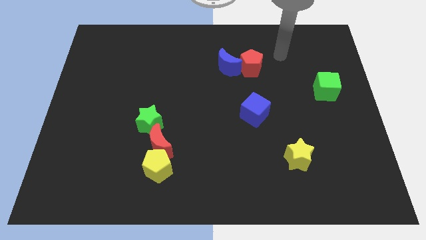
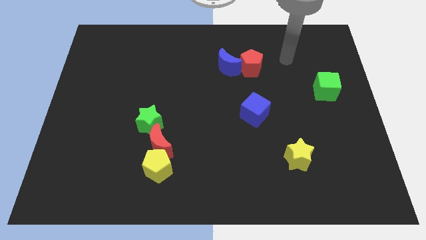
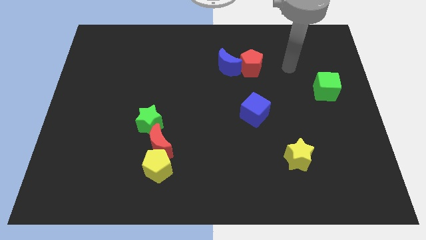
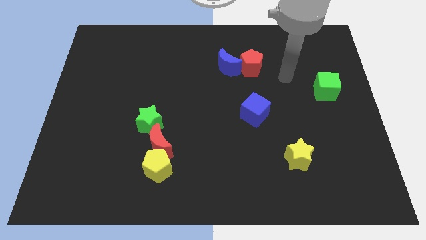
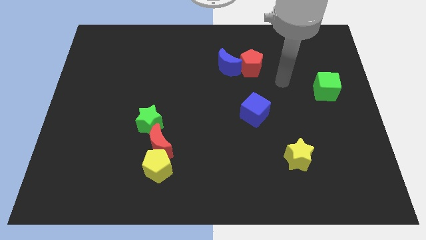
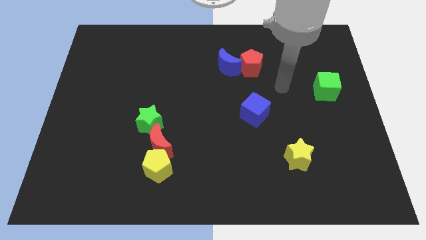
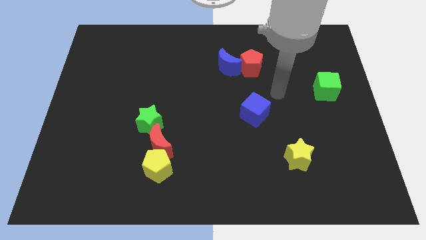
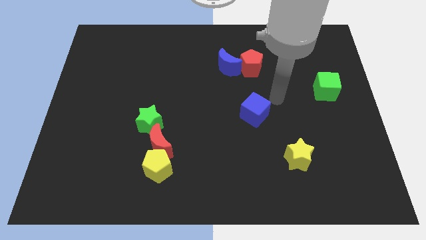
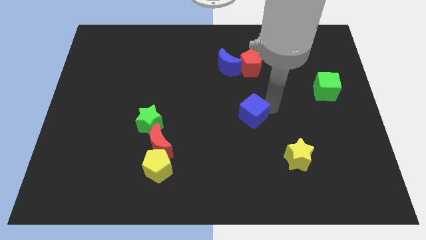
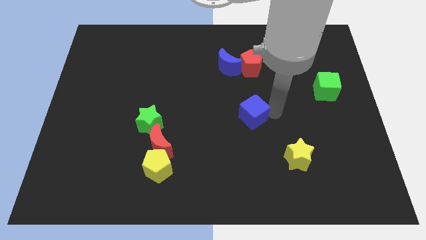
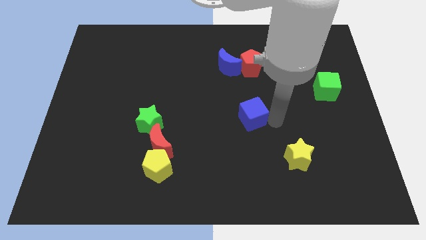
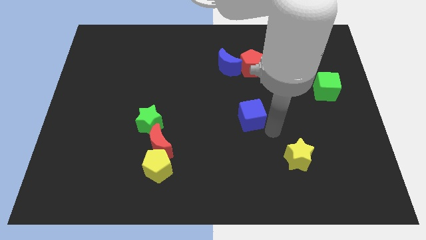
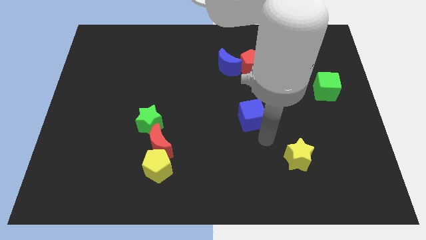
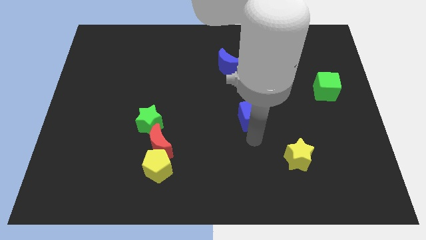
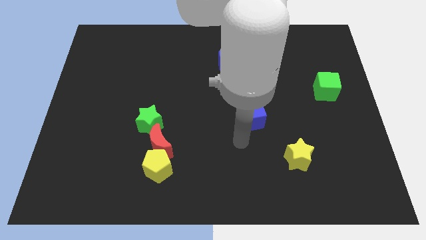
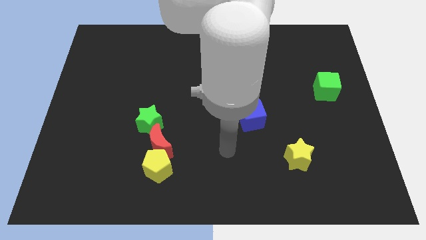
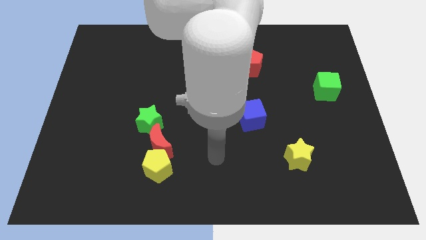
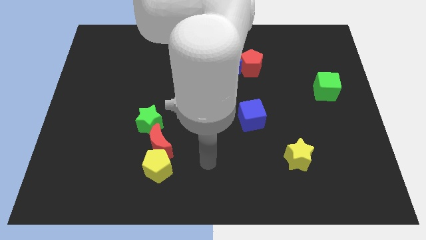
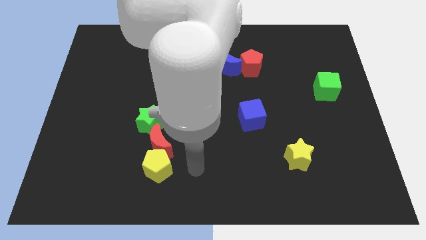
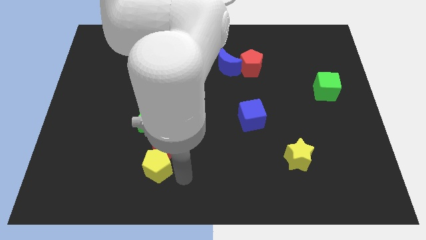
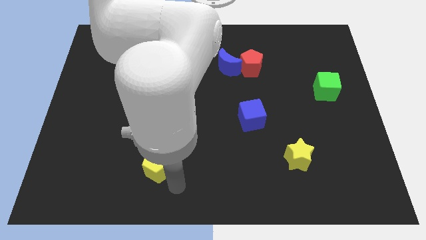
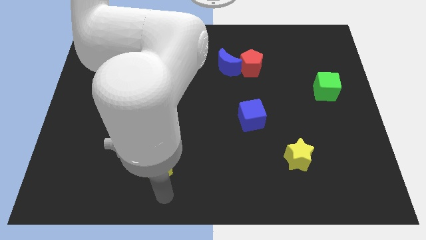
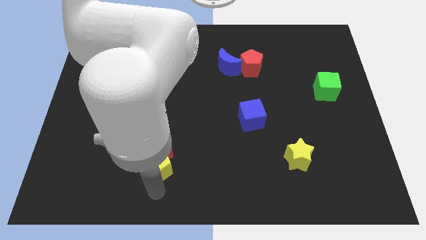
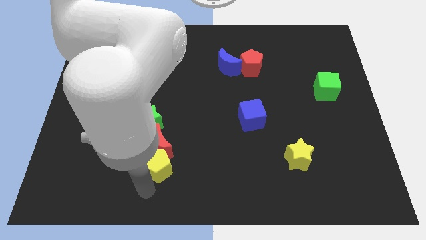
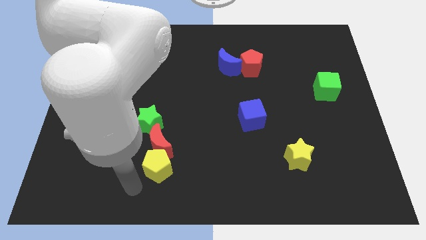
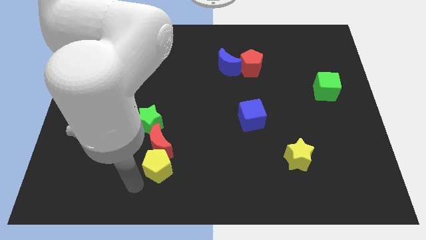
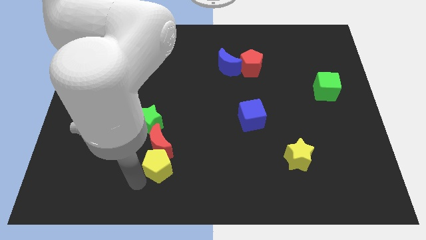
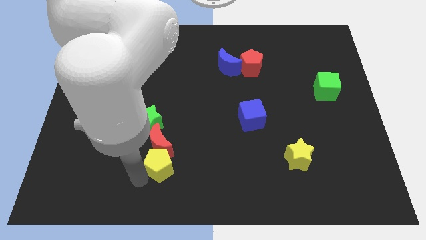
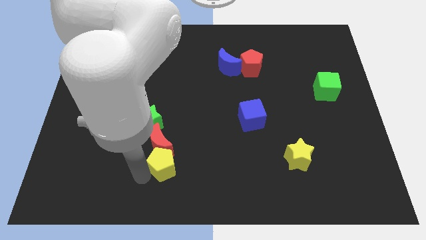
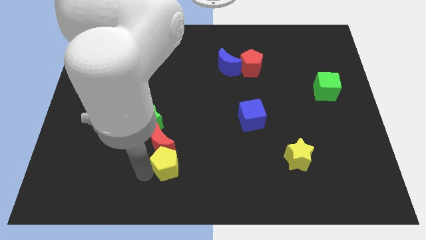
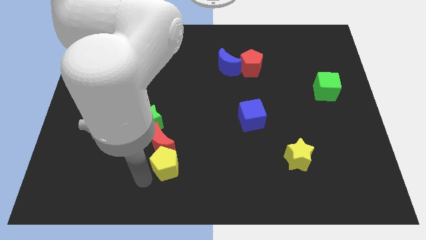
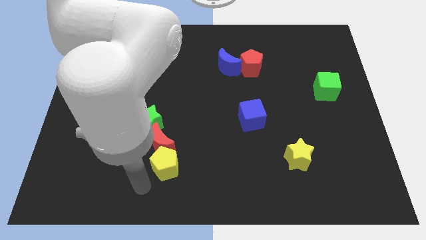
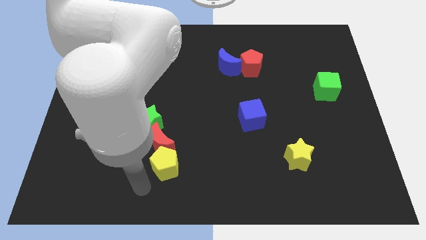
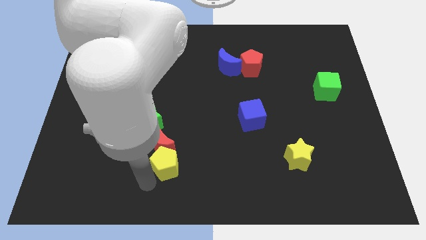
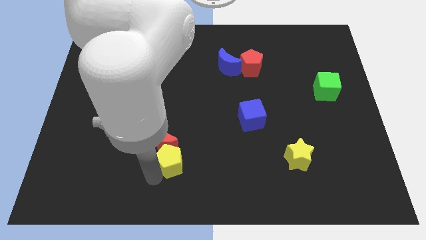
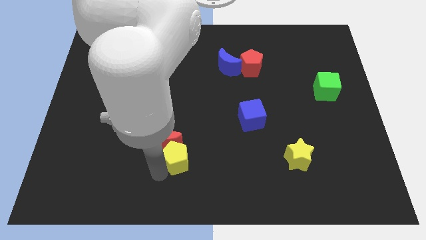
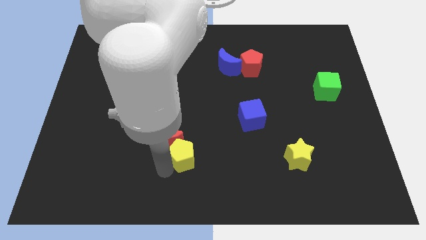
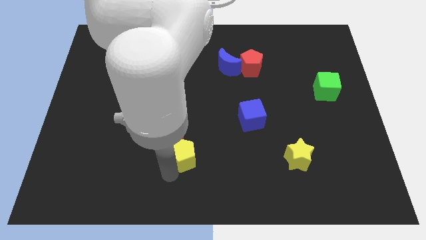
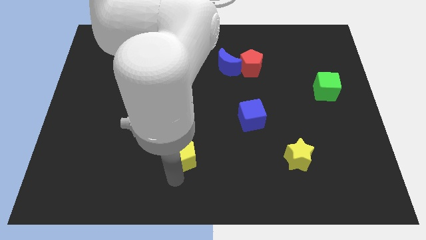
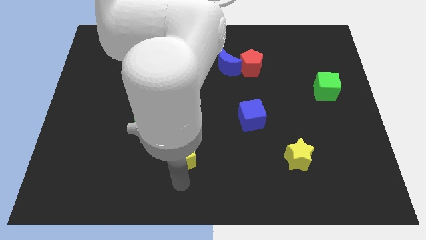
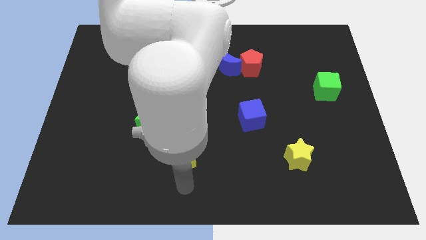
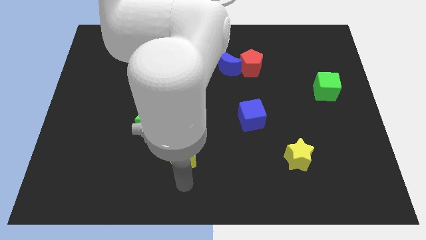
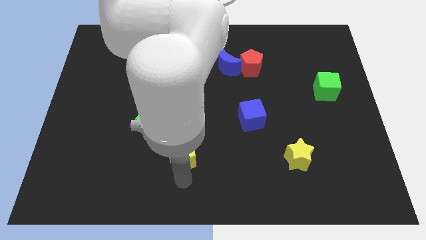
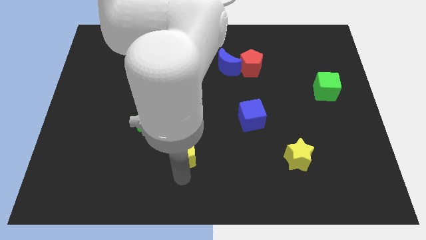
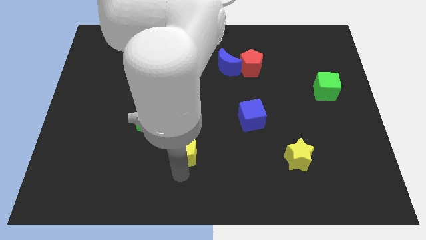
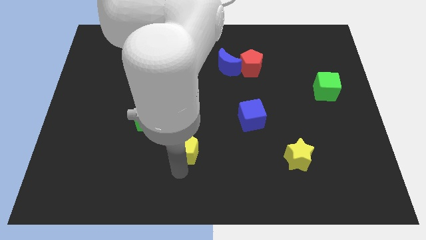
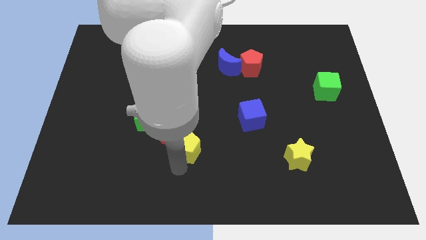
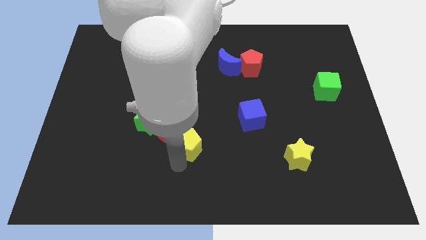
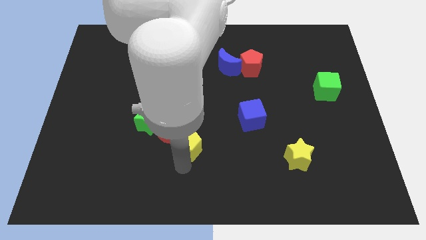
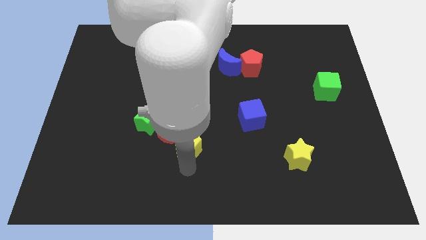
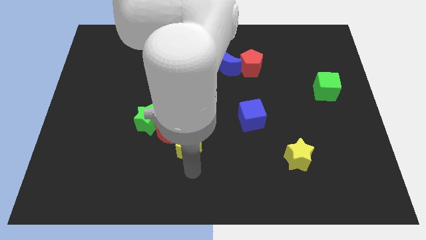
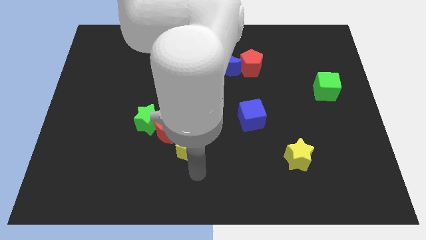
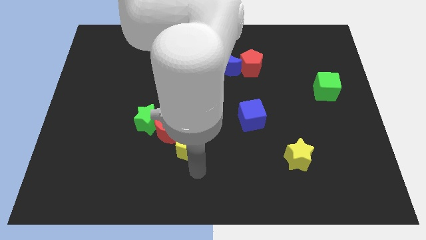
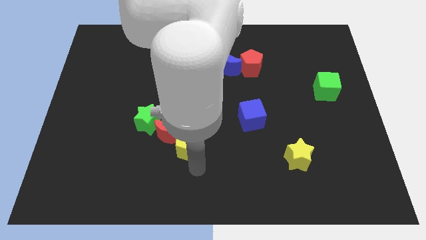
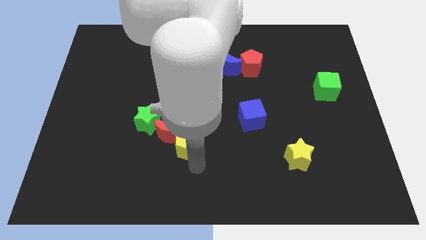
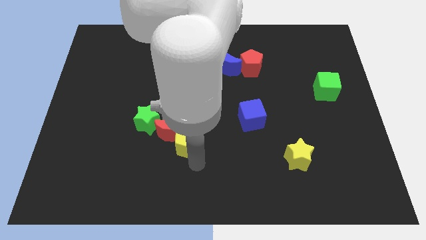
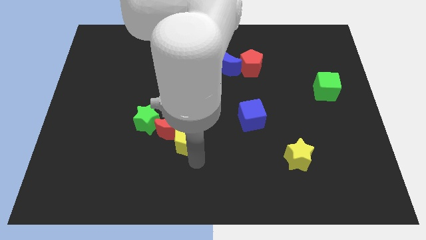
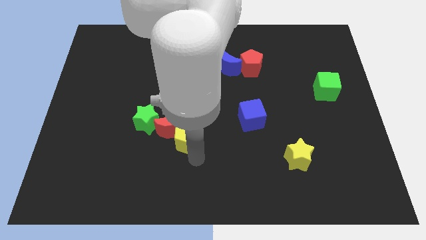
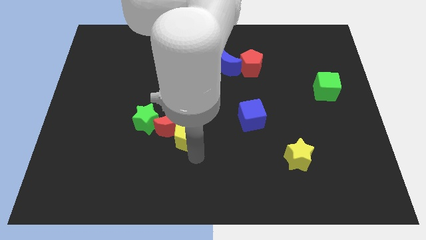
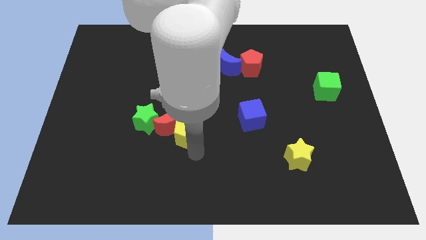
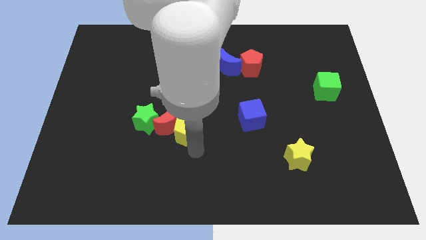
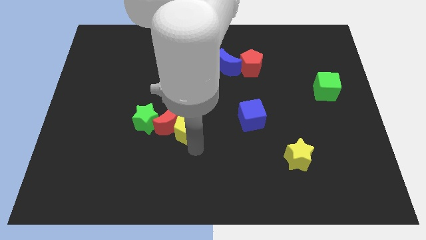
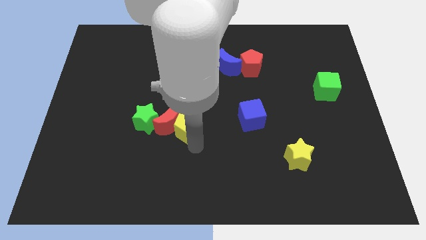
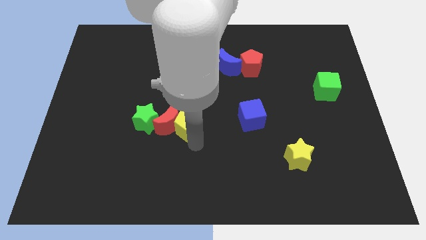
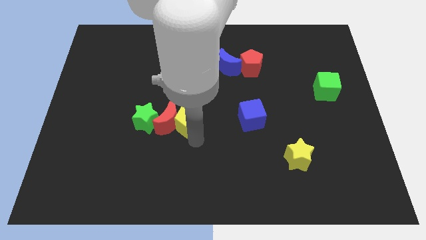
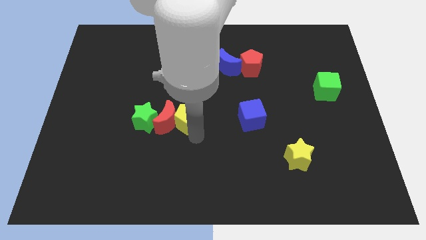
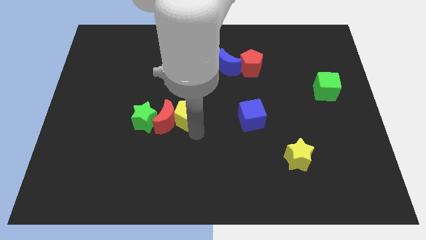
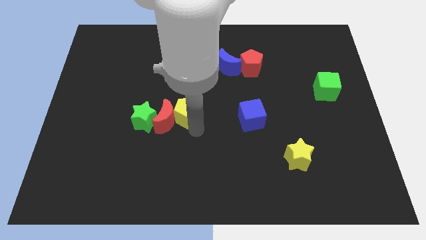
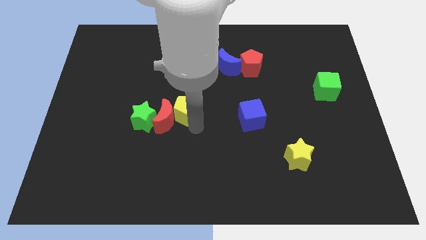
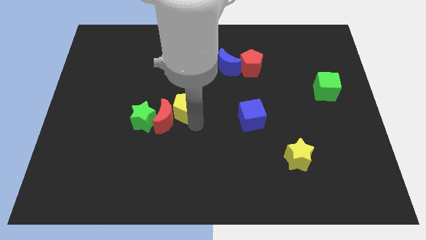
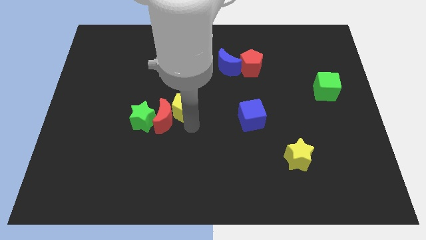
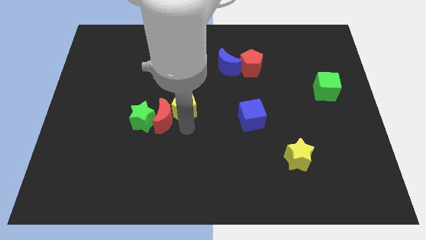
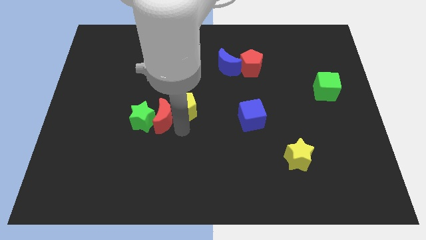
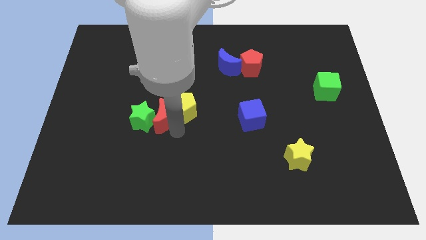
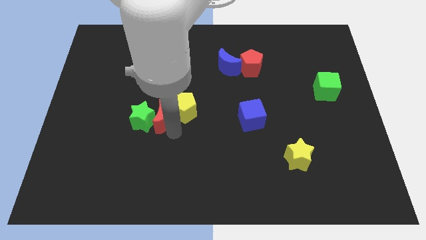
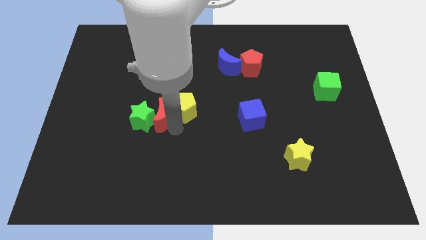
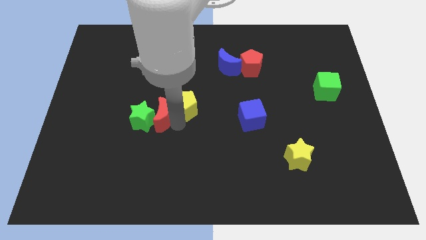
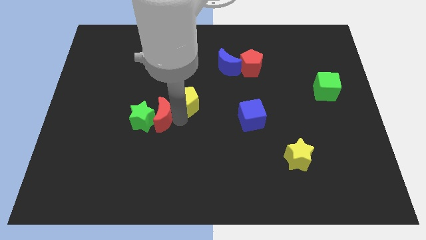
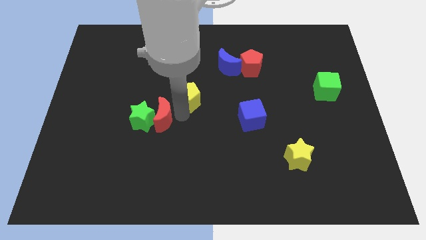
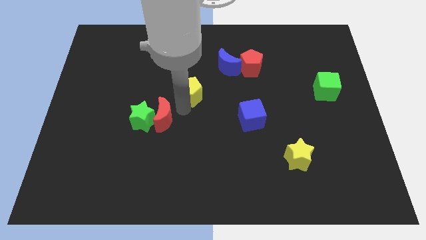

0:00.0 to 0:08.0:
move the yellow pentagon to the bottom left of the blue moon
